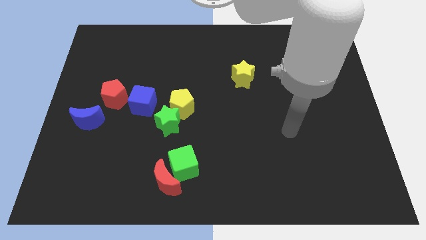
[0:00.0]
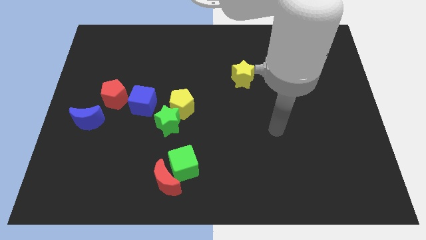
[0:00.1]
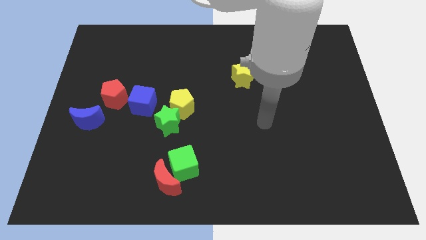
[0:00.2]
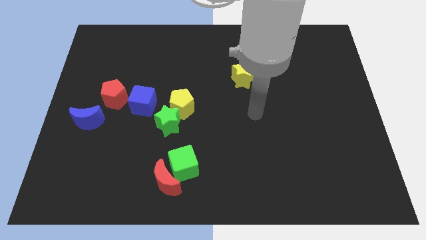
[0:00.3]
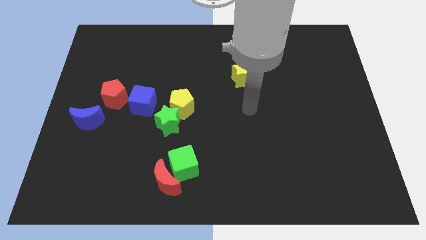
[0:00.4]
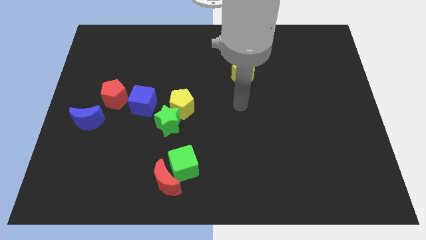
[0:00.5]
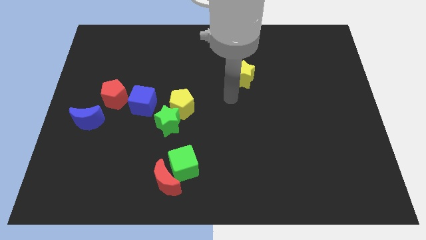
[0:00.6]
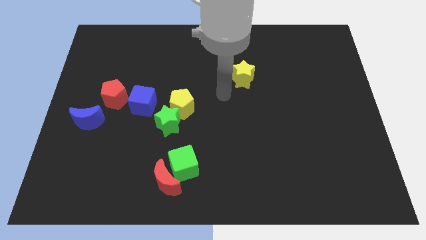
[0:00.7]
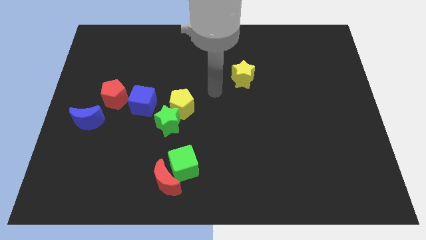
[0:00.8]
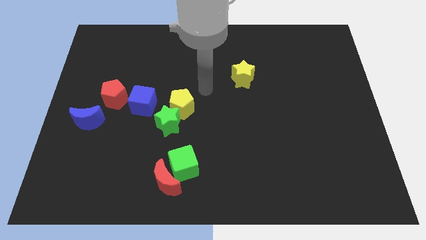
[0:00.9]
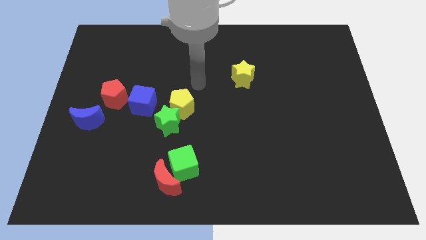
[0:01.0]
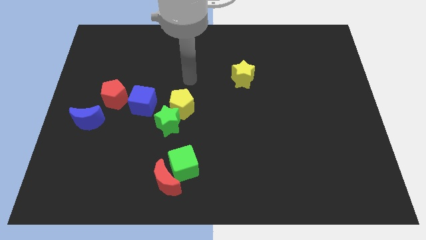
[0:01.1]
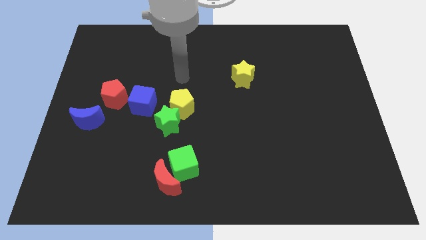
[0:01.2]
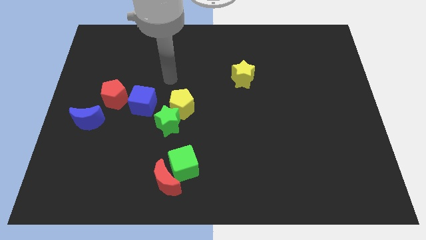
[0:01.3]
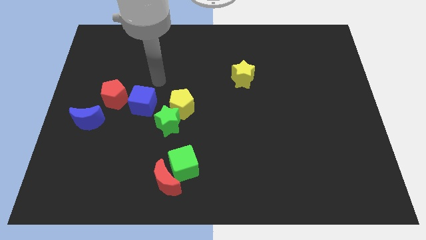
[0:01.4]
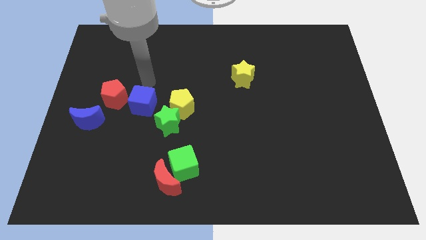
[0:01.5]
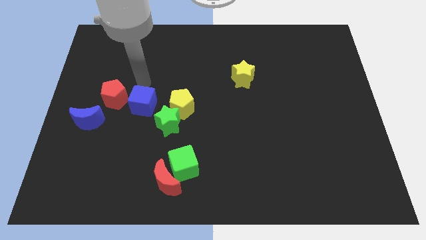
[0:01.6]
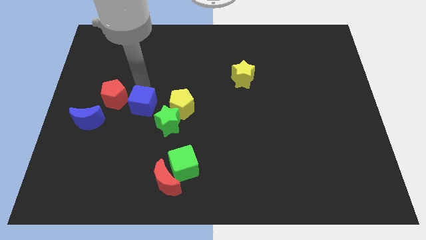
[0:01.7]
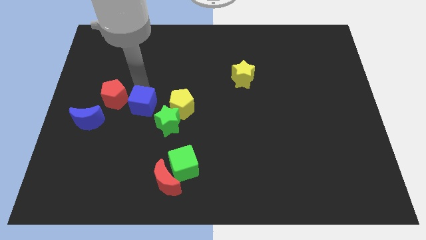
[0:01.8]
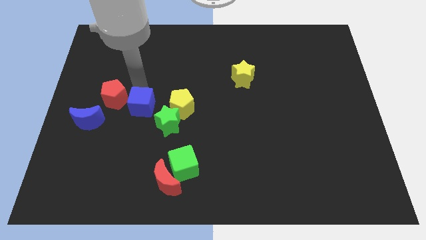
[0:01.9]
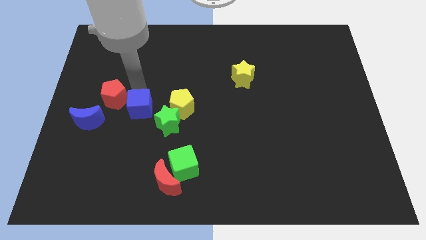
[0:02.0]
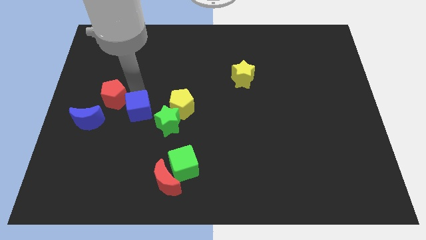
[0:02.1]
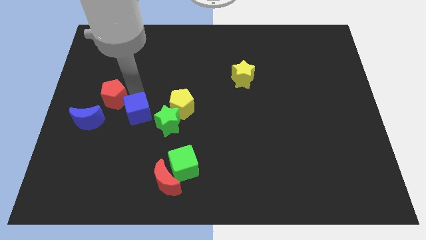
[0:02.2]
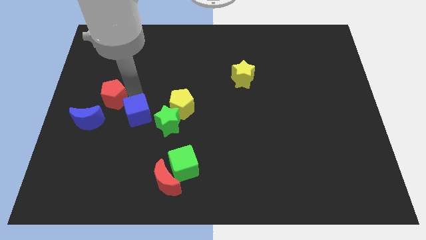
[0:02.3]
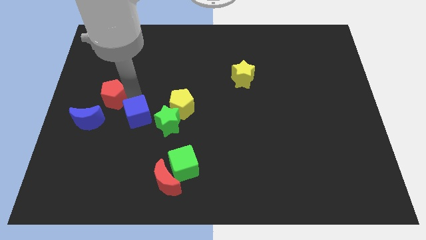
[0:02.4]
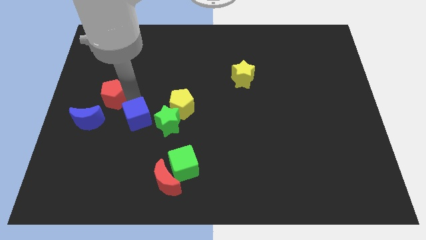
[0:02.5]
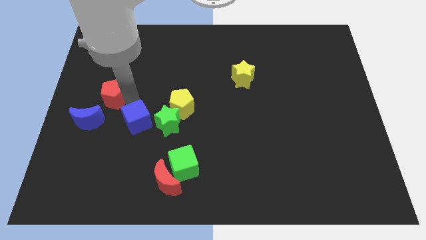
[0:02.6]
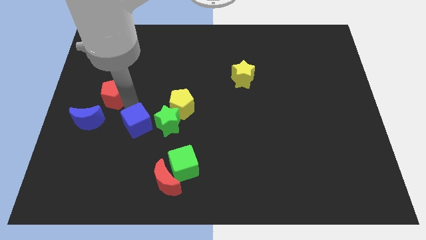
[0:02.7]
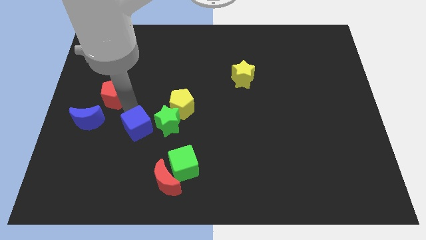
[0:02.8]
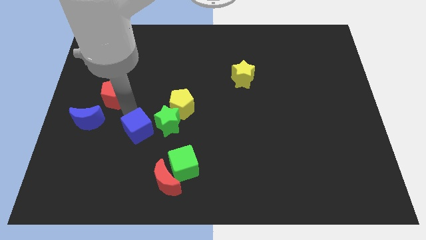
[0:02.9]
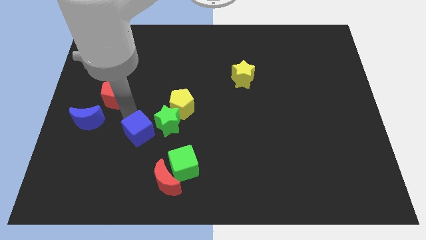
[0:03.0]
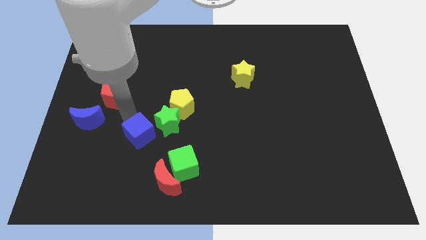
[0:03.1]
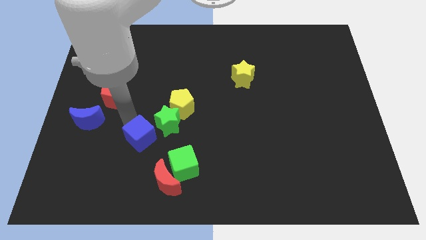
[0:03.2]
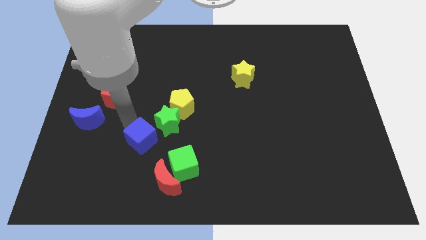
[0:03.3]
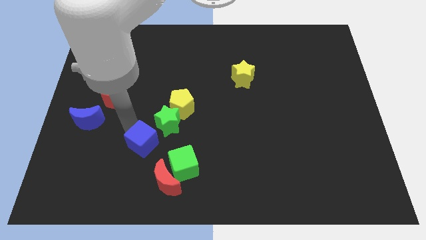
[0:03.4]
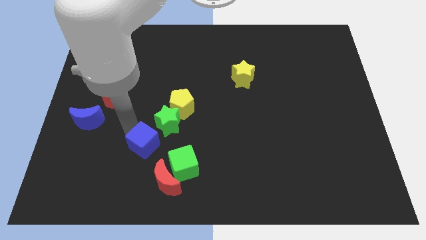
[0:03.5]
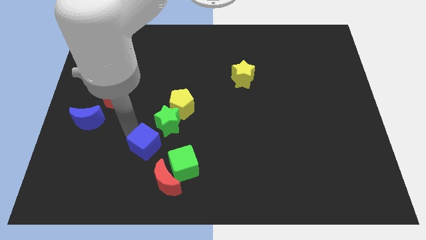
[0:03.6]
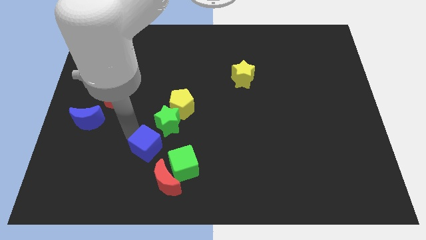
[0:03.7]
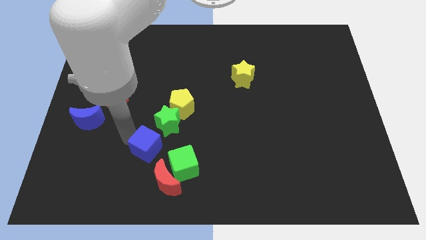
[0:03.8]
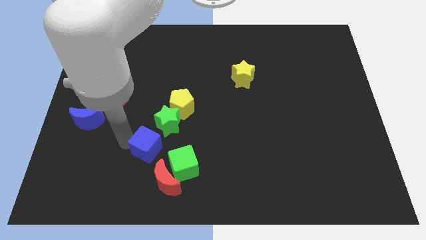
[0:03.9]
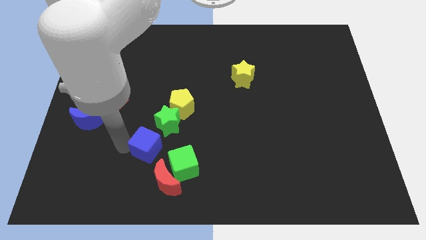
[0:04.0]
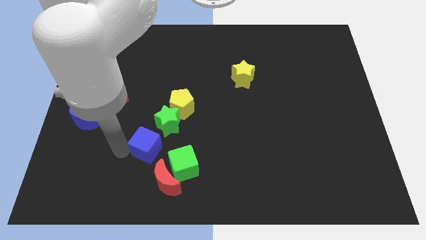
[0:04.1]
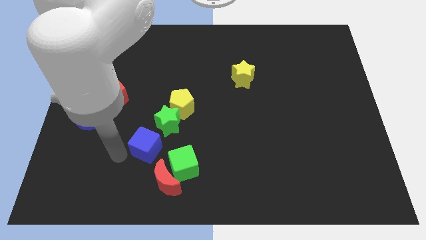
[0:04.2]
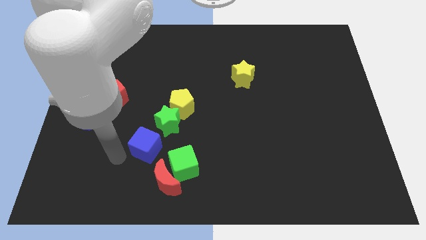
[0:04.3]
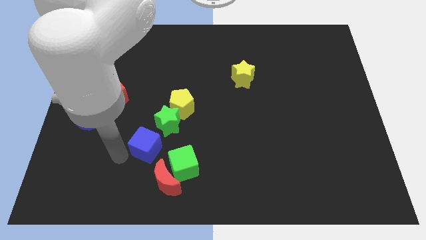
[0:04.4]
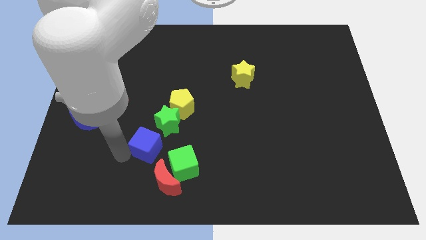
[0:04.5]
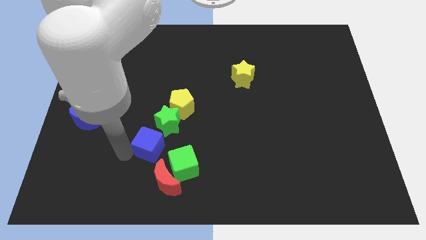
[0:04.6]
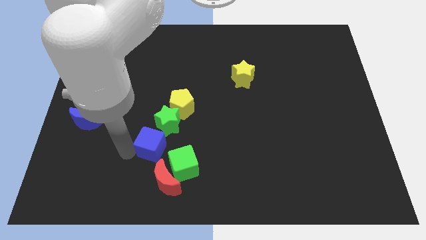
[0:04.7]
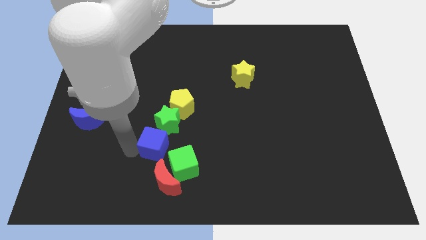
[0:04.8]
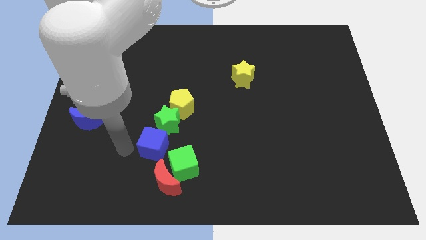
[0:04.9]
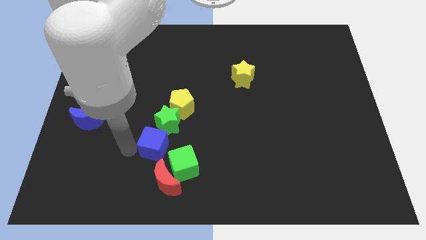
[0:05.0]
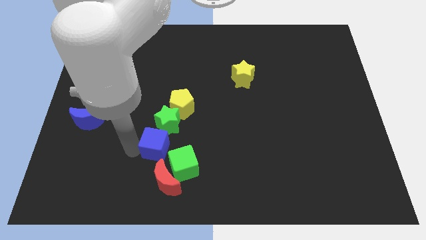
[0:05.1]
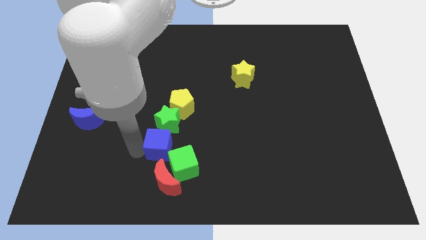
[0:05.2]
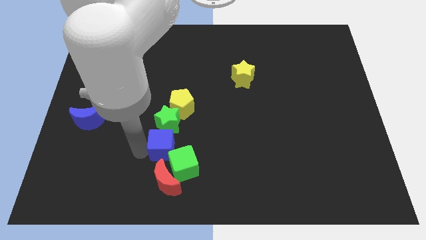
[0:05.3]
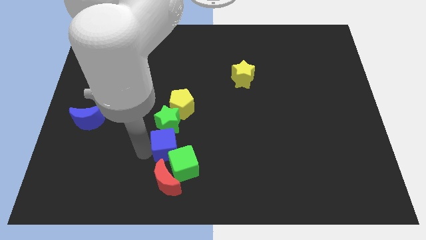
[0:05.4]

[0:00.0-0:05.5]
move the blue cube diagonally down and to the right of the green star

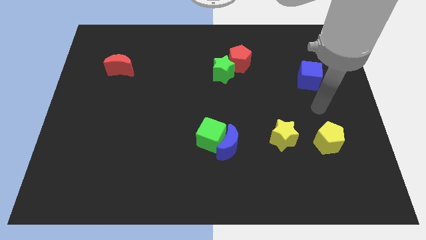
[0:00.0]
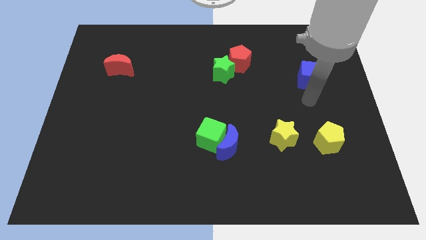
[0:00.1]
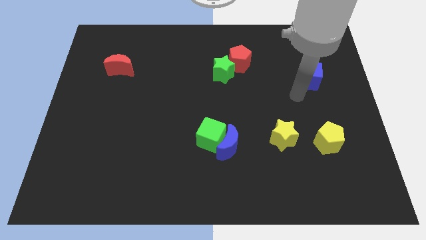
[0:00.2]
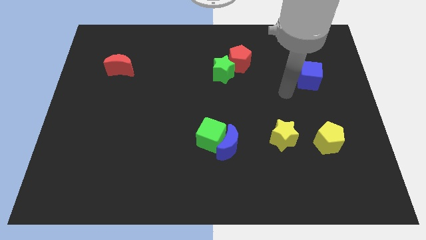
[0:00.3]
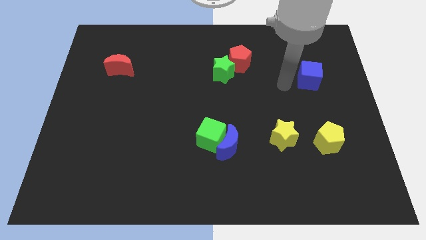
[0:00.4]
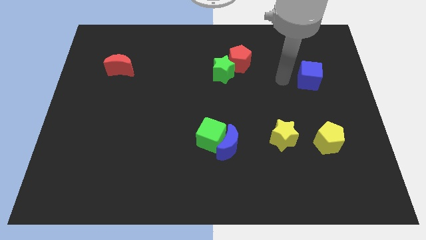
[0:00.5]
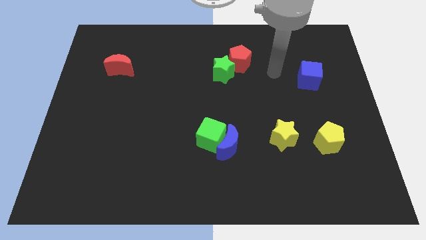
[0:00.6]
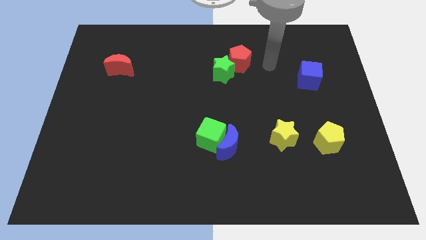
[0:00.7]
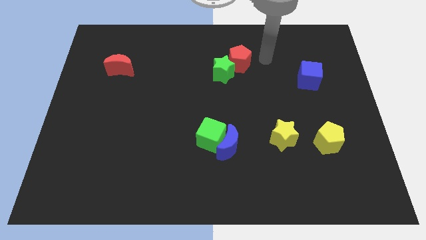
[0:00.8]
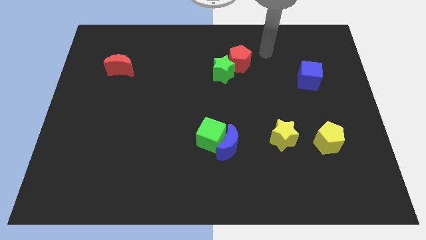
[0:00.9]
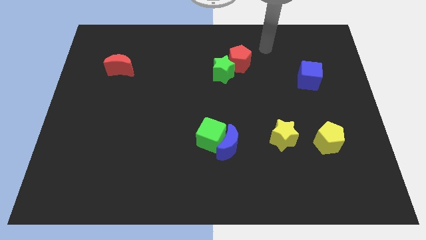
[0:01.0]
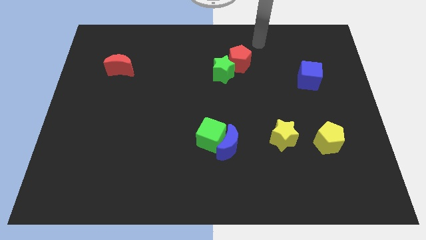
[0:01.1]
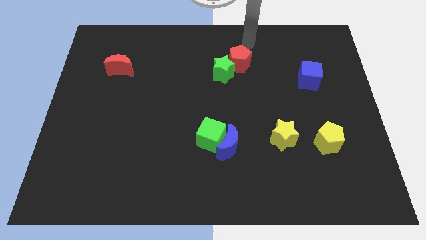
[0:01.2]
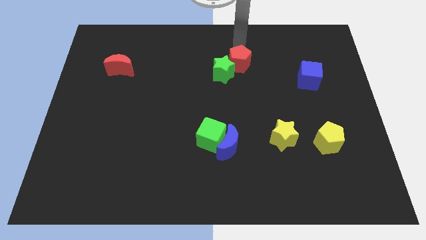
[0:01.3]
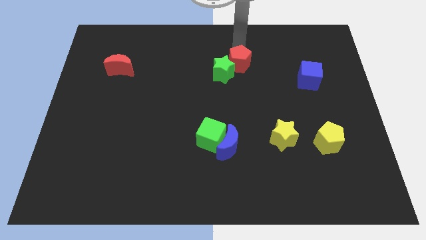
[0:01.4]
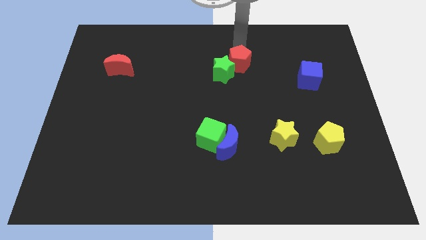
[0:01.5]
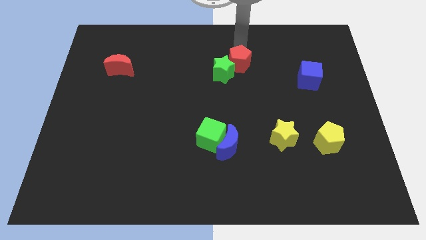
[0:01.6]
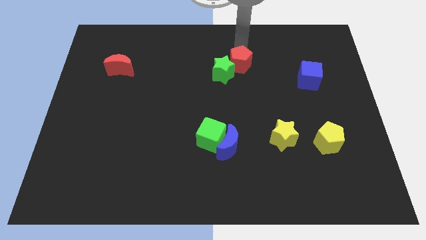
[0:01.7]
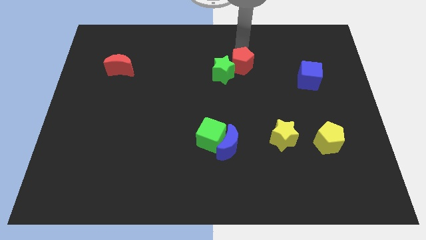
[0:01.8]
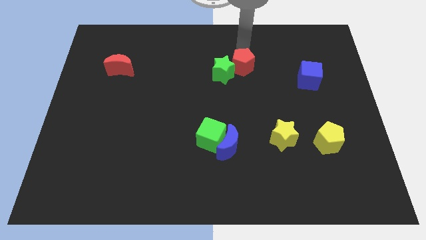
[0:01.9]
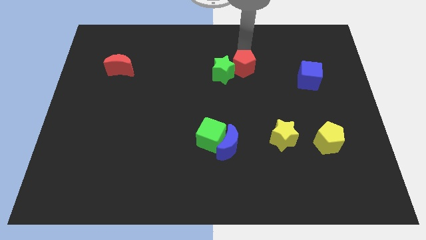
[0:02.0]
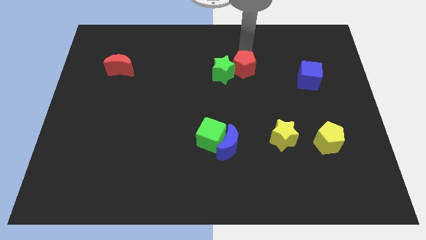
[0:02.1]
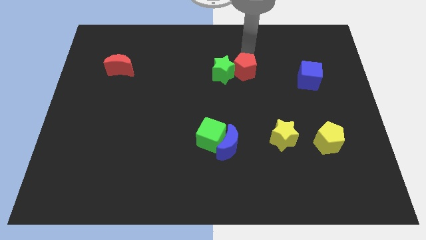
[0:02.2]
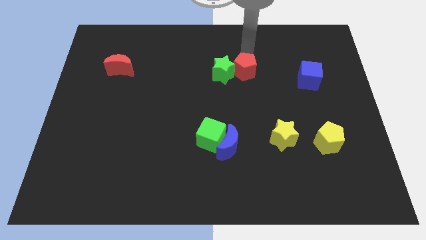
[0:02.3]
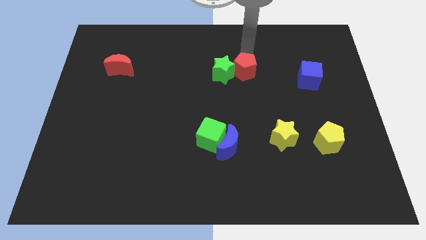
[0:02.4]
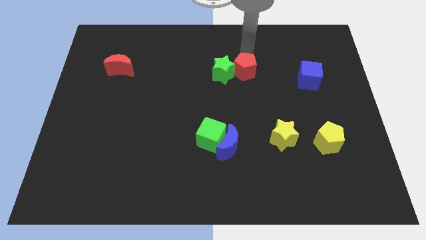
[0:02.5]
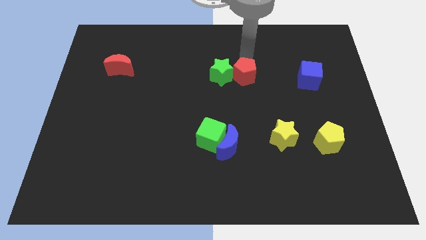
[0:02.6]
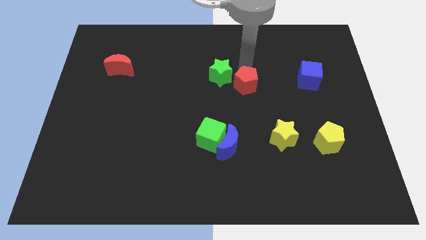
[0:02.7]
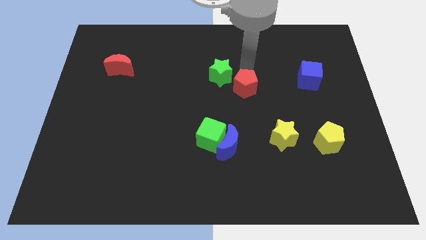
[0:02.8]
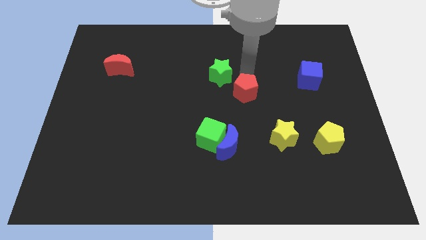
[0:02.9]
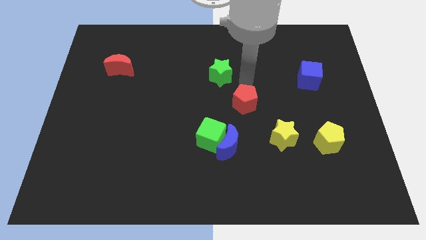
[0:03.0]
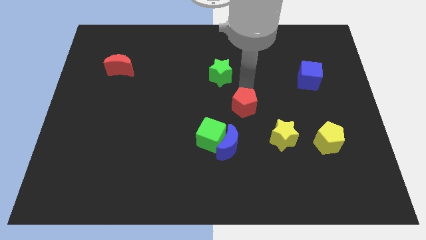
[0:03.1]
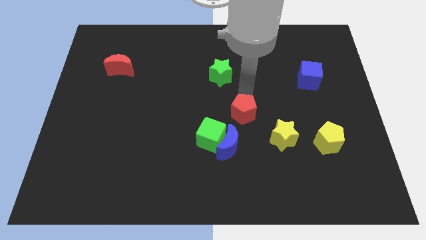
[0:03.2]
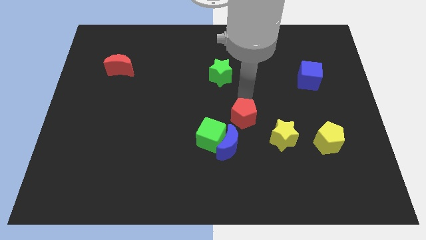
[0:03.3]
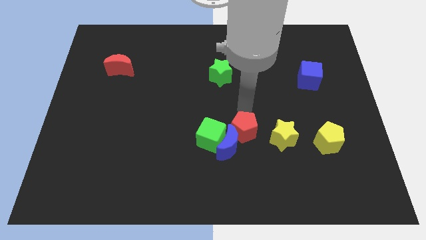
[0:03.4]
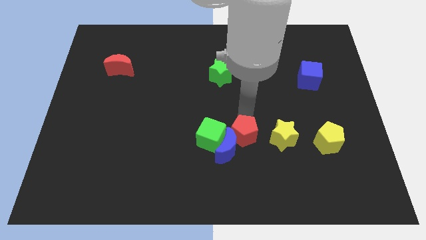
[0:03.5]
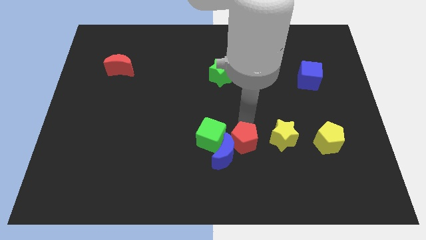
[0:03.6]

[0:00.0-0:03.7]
move the red pentagon to the bottom right side of the green cube
